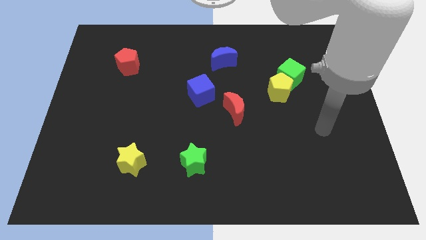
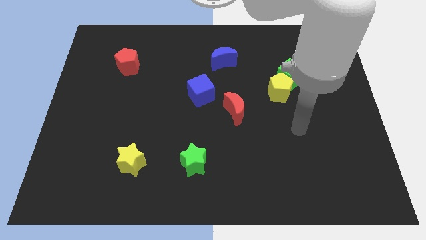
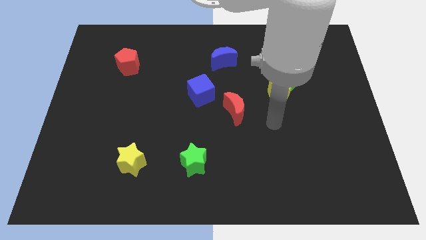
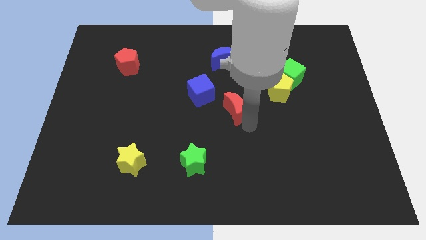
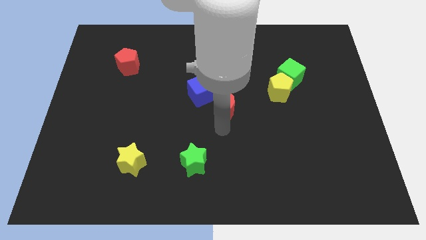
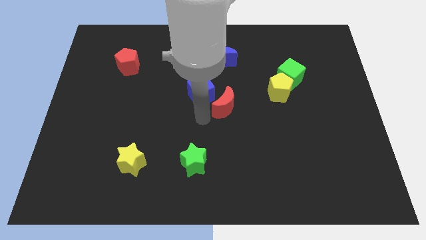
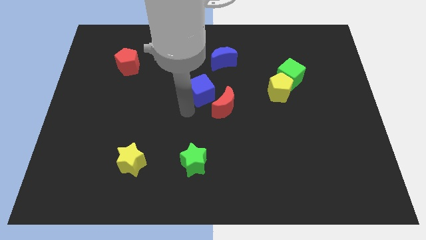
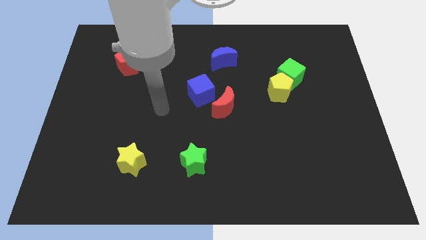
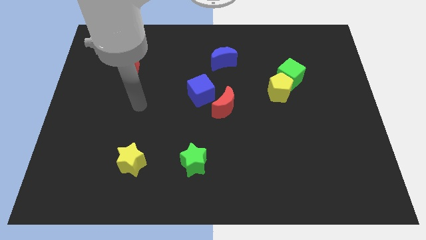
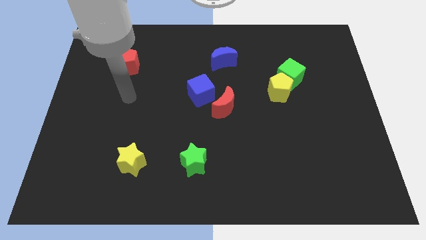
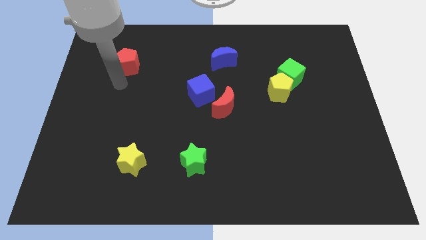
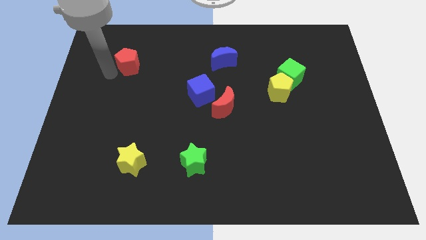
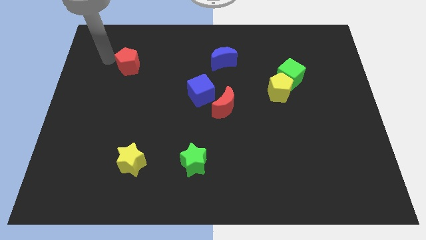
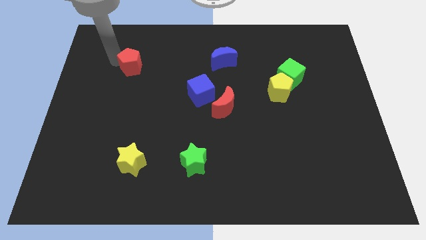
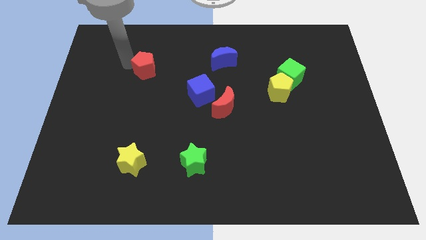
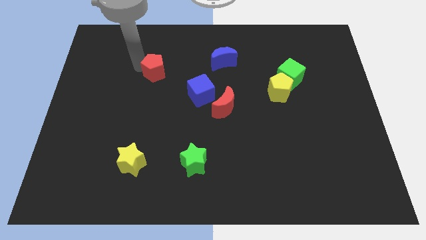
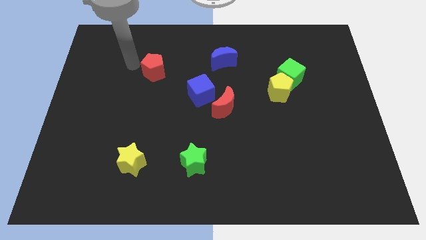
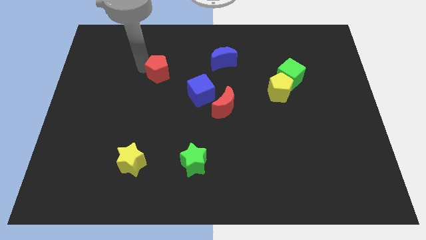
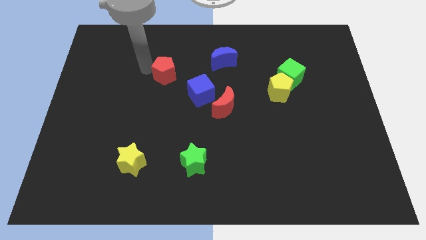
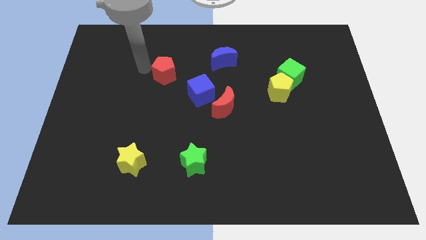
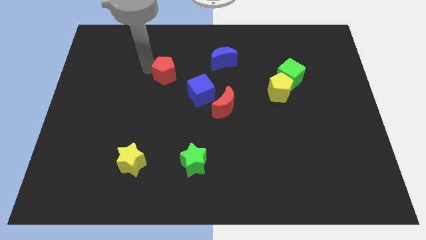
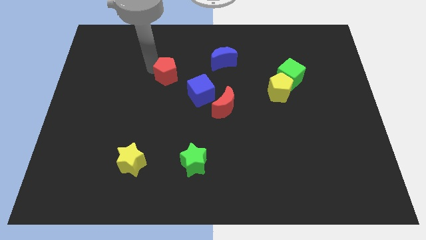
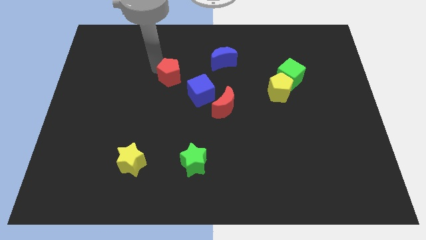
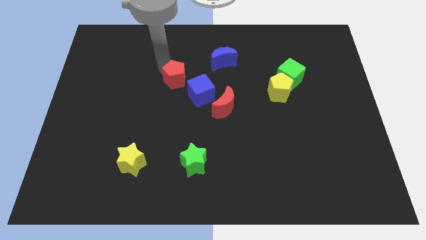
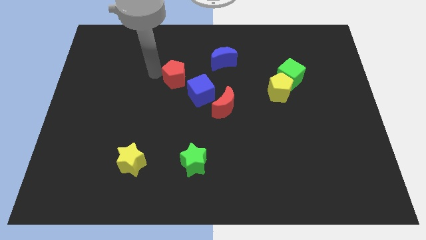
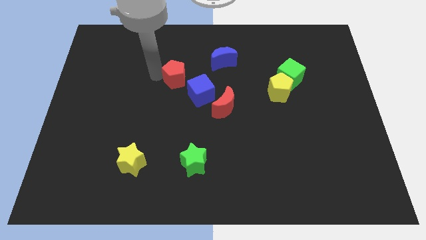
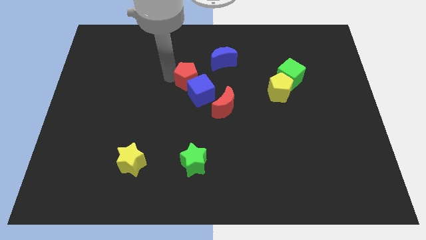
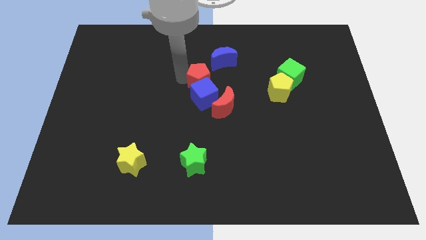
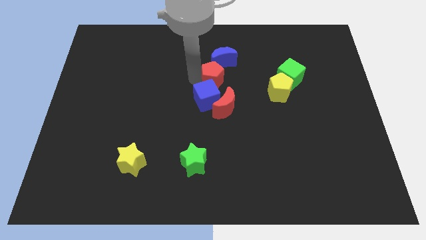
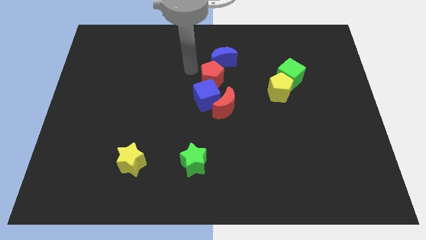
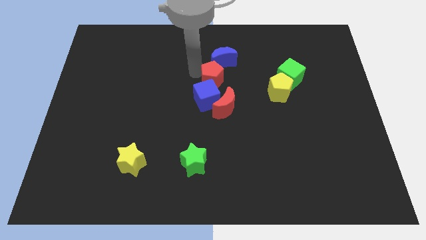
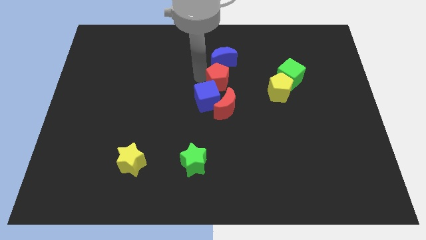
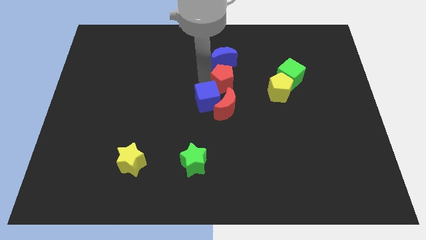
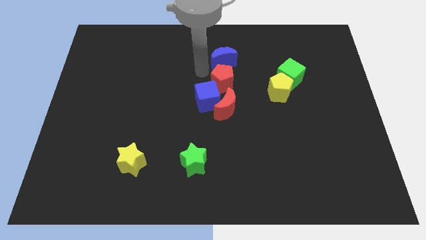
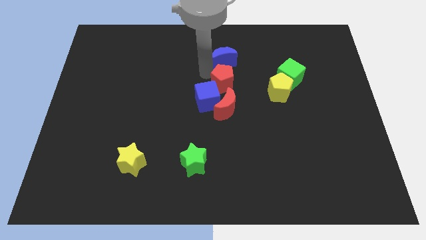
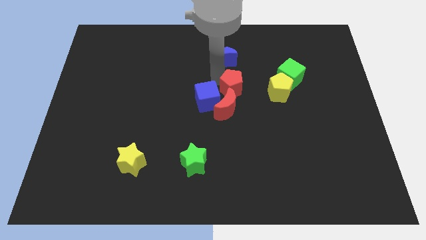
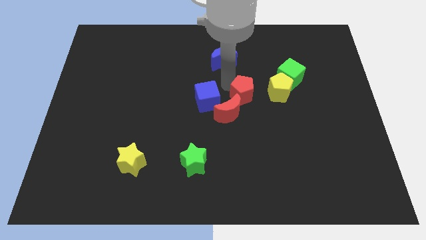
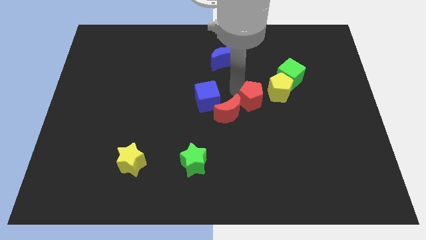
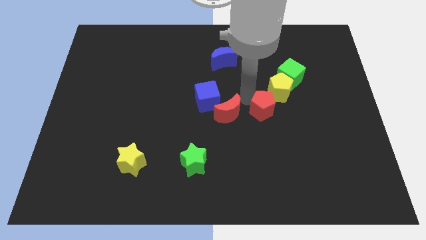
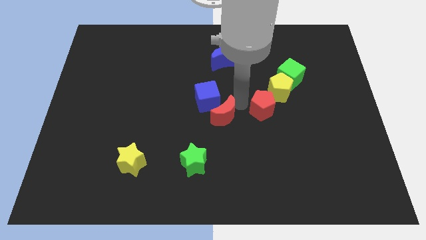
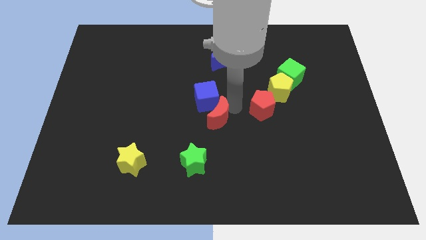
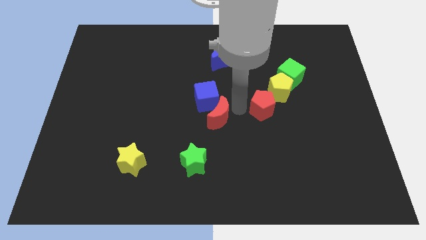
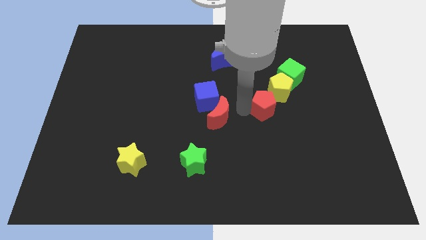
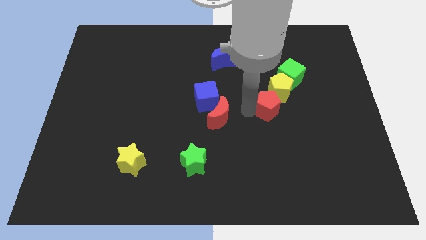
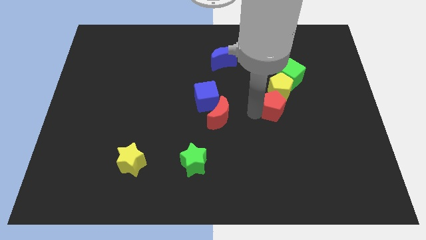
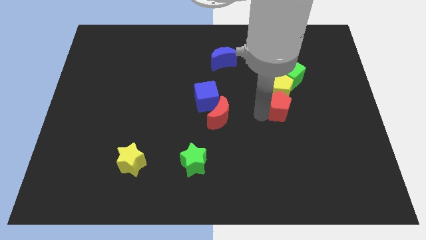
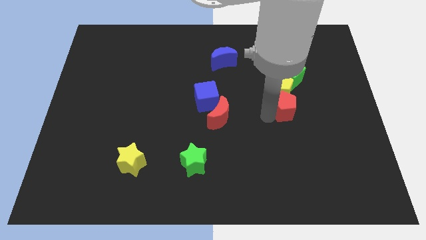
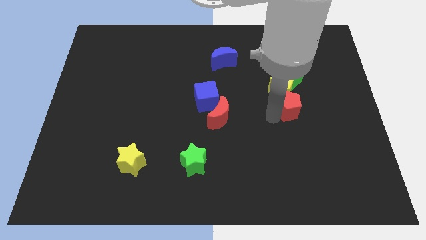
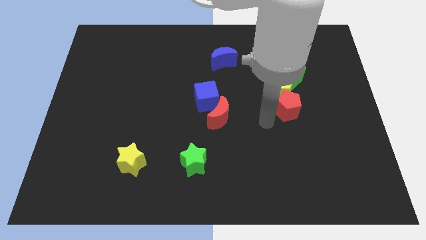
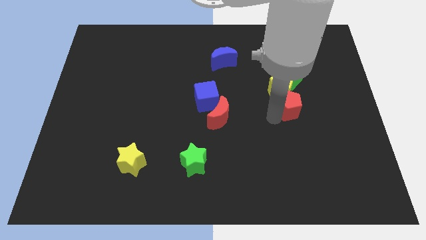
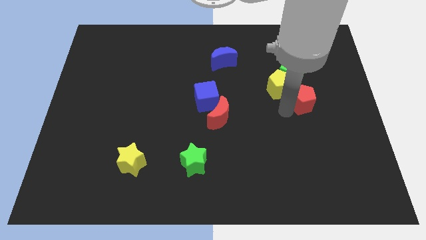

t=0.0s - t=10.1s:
slide the red pentagon to the right of the yellow pentagon

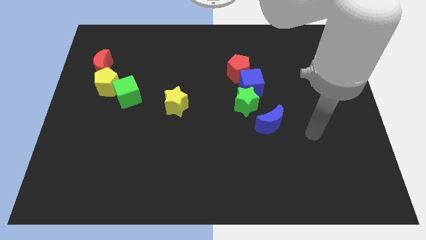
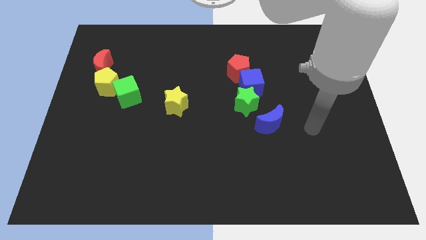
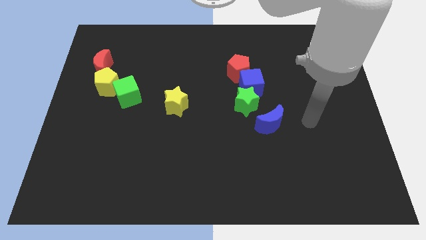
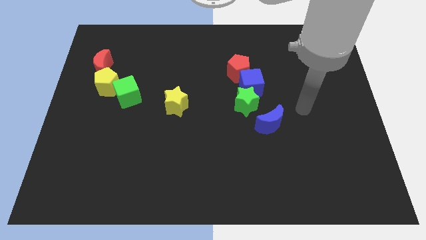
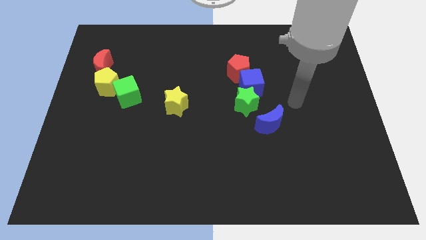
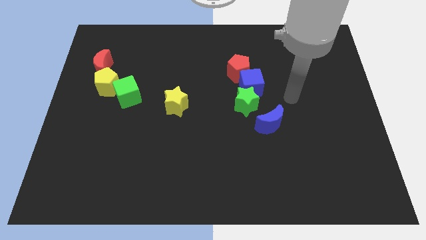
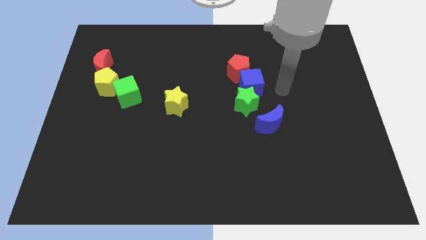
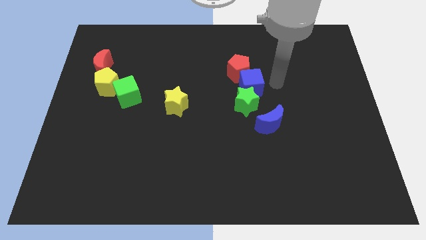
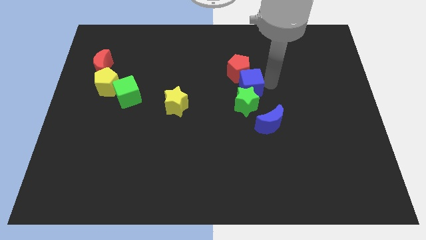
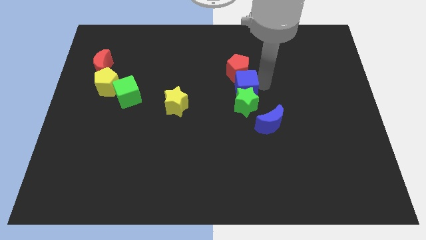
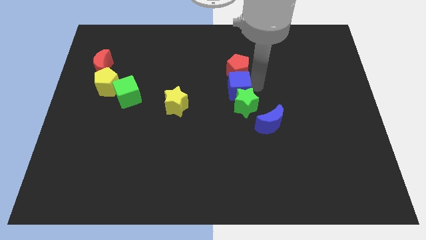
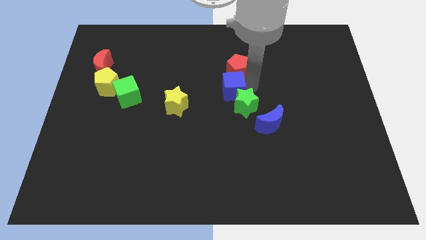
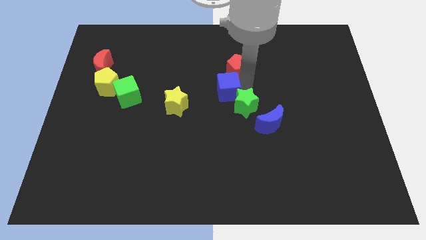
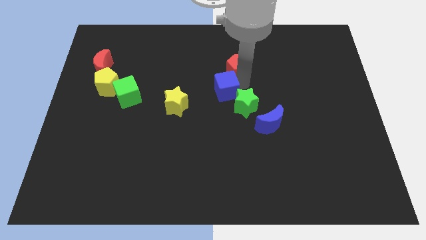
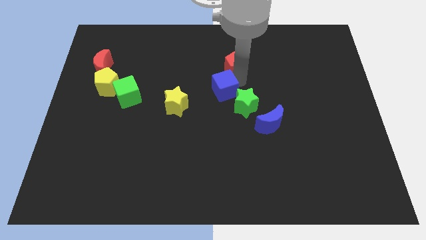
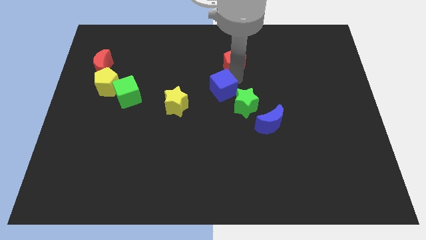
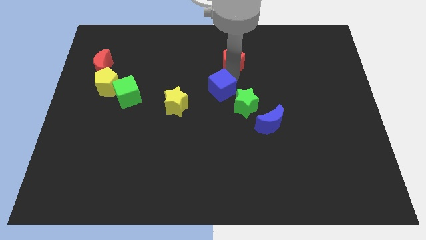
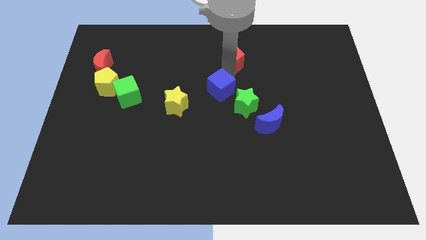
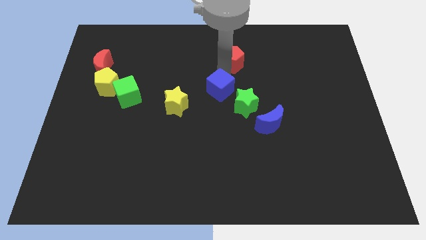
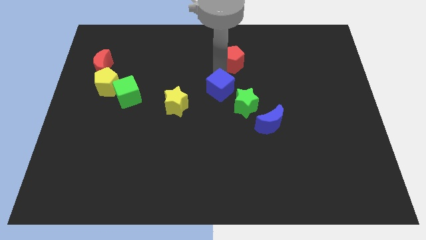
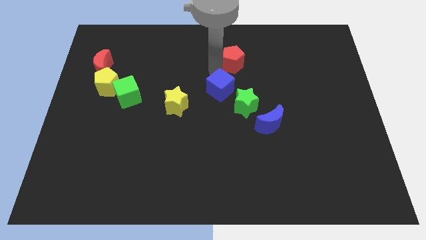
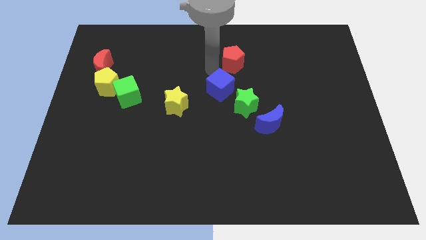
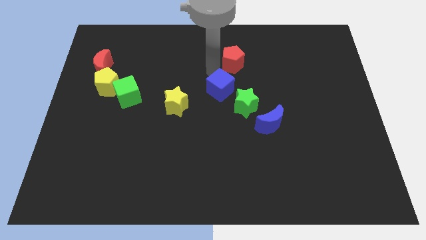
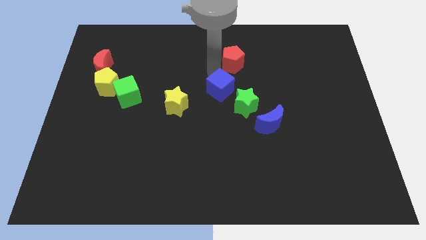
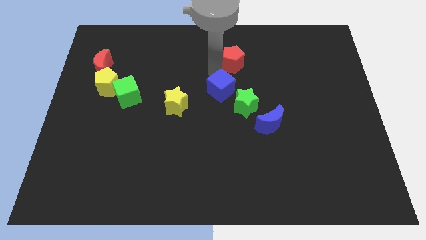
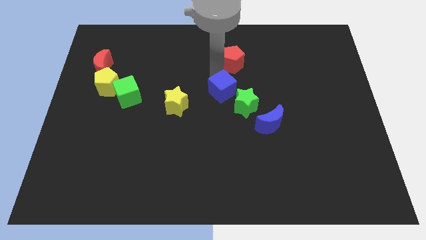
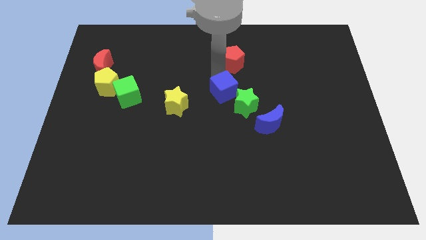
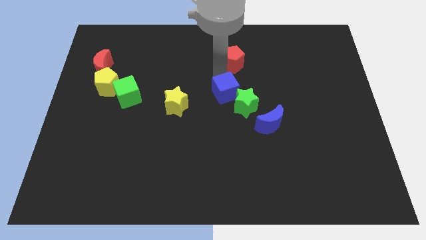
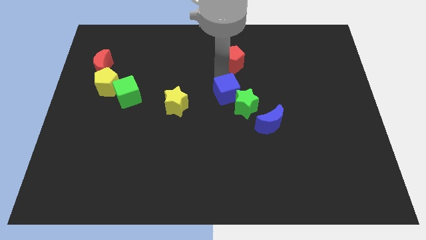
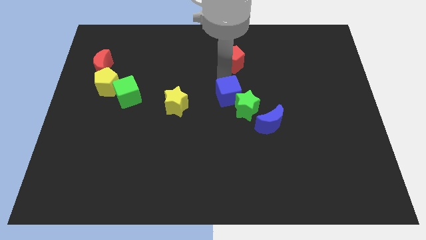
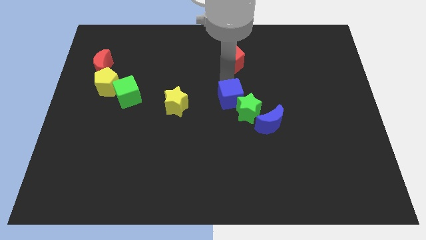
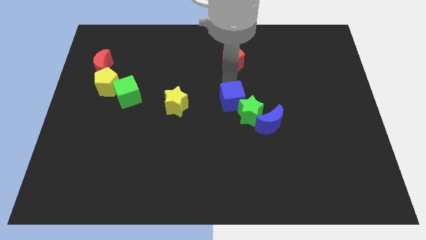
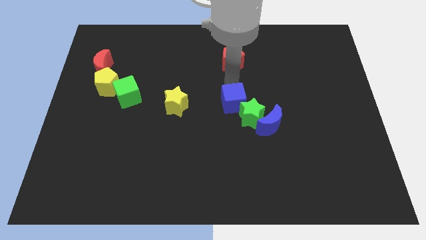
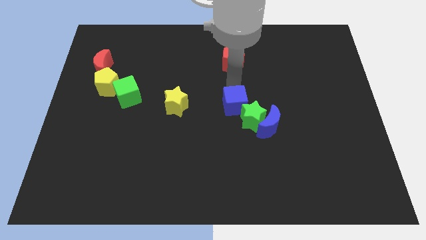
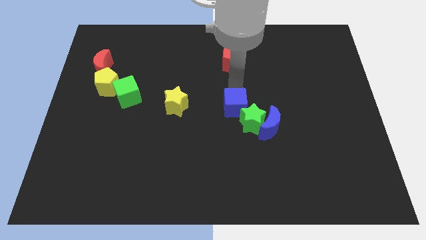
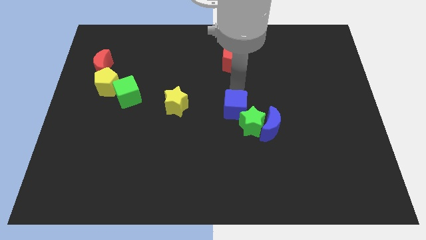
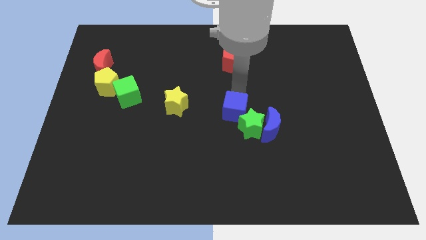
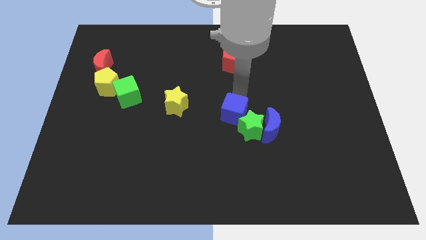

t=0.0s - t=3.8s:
move the blue cube to the left of the blue moon
